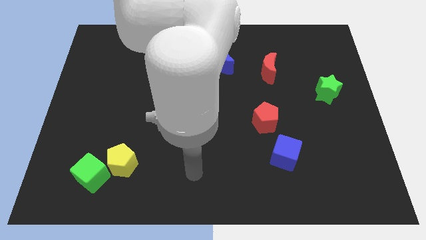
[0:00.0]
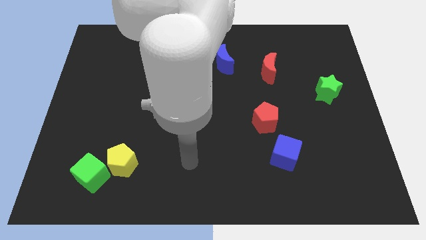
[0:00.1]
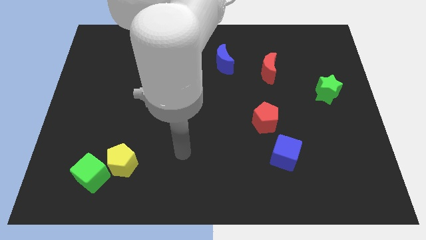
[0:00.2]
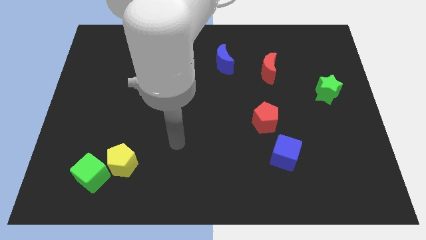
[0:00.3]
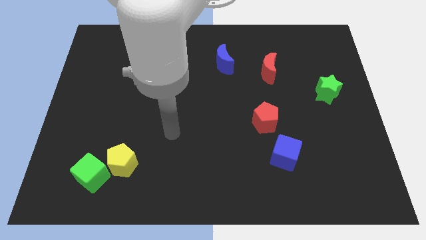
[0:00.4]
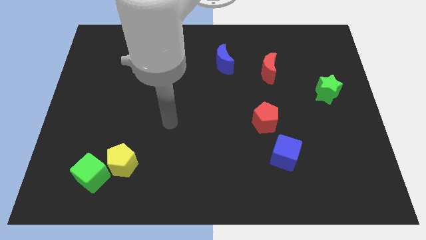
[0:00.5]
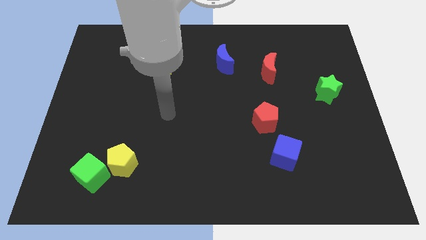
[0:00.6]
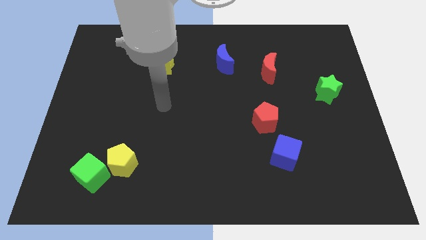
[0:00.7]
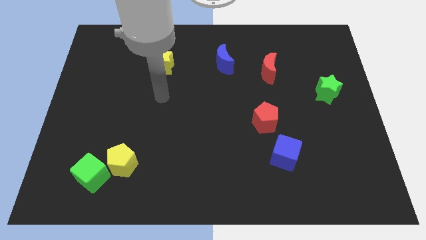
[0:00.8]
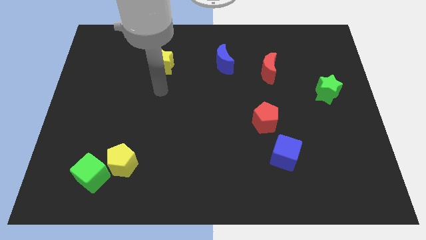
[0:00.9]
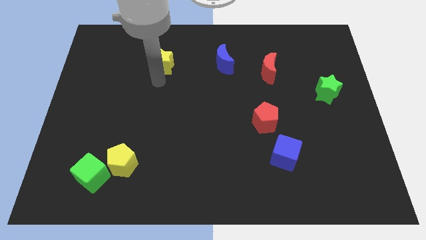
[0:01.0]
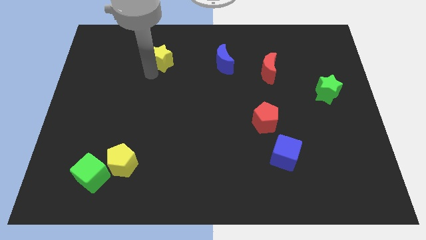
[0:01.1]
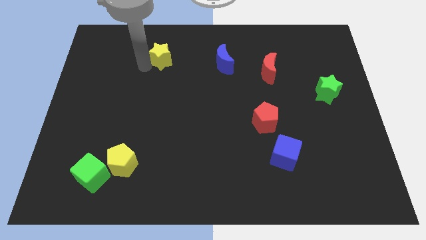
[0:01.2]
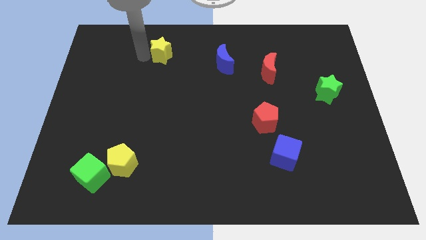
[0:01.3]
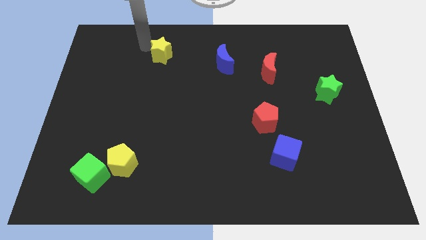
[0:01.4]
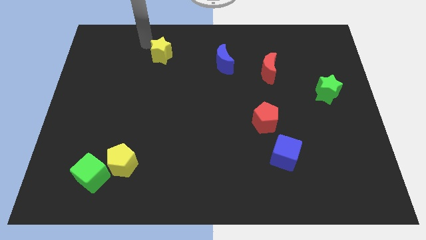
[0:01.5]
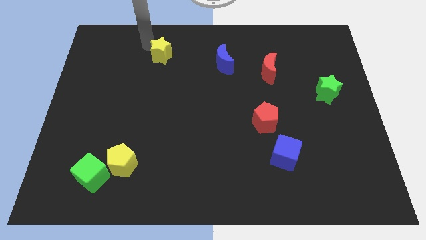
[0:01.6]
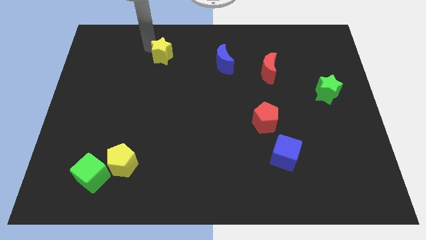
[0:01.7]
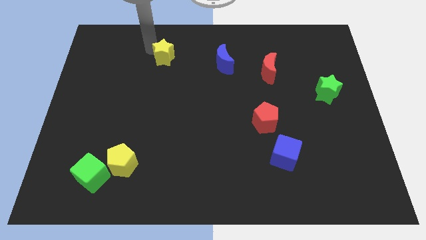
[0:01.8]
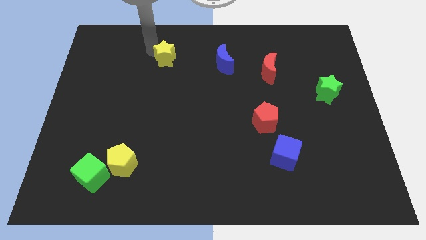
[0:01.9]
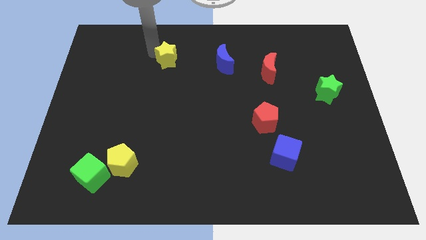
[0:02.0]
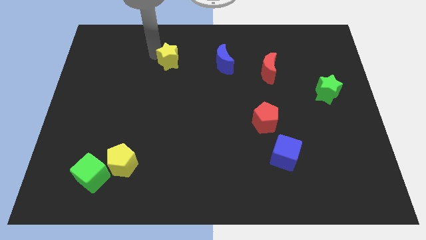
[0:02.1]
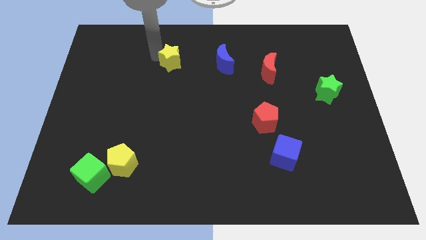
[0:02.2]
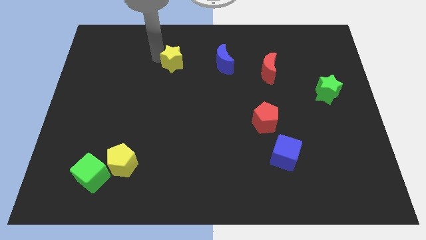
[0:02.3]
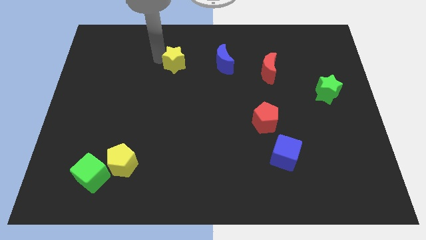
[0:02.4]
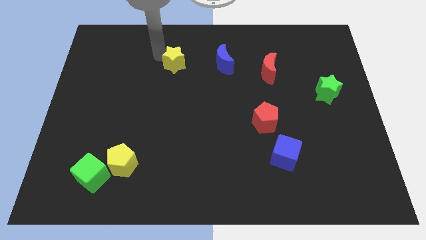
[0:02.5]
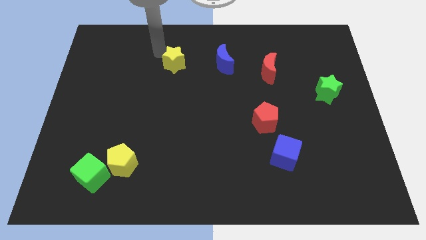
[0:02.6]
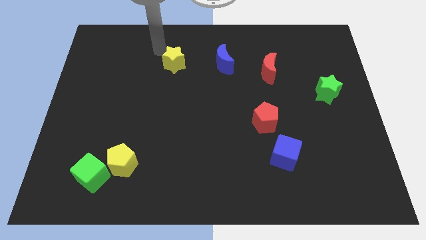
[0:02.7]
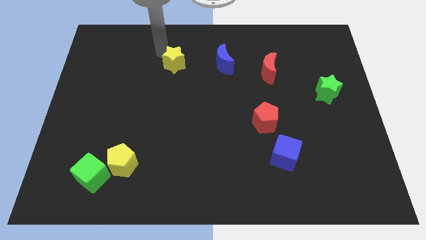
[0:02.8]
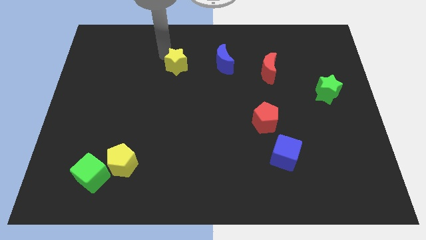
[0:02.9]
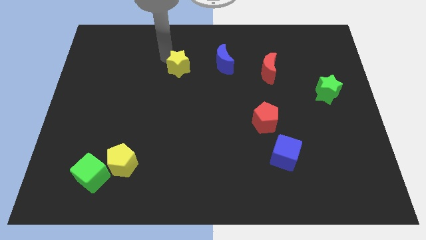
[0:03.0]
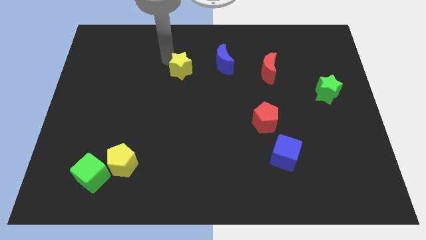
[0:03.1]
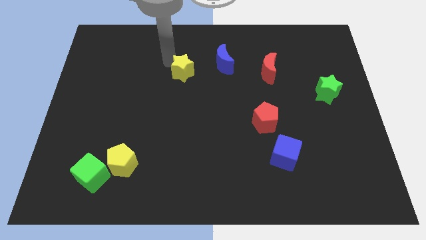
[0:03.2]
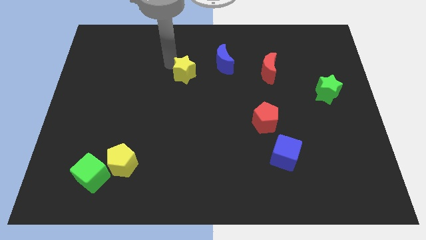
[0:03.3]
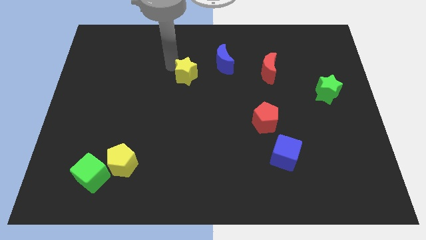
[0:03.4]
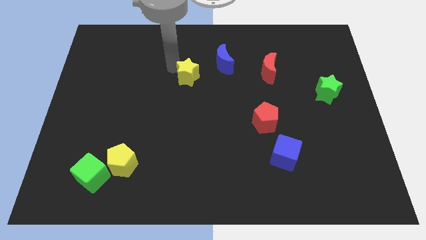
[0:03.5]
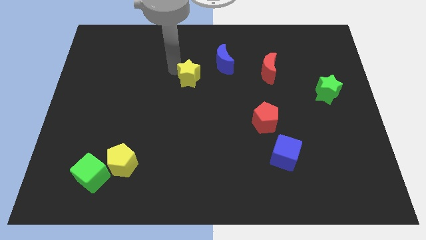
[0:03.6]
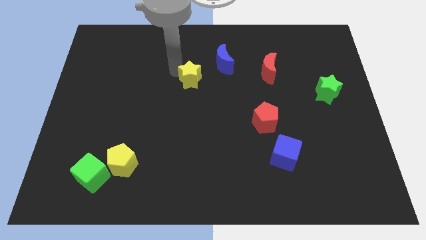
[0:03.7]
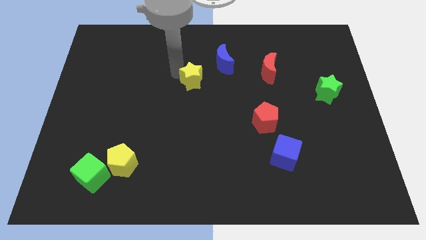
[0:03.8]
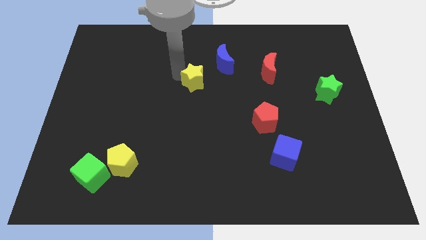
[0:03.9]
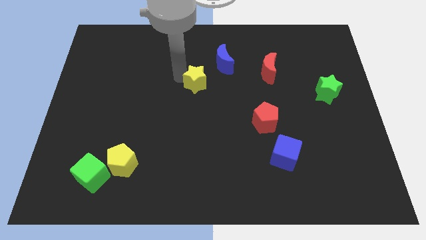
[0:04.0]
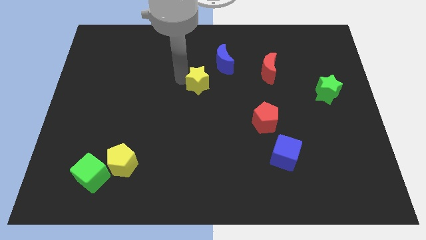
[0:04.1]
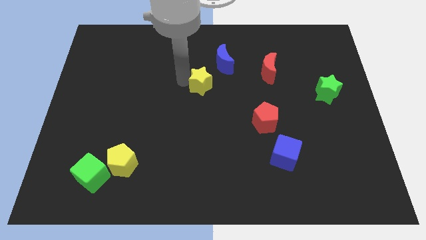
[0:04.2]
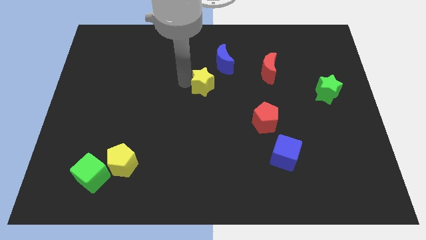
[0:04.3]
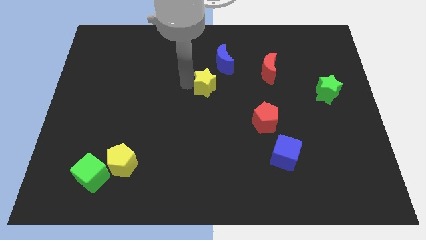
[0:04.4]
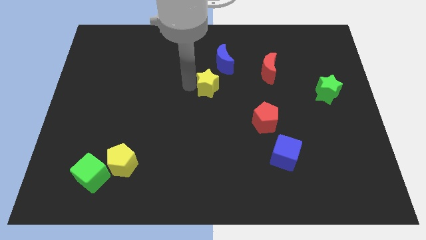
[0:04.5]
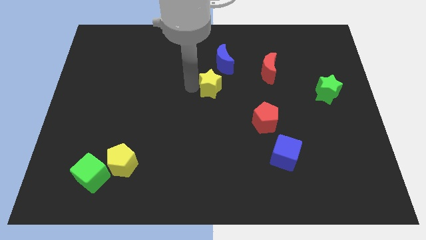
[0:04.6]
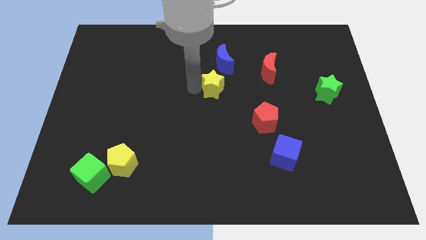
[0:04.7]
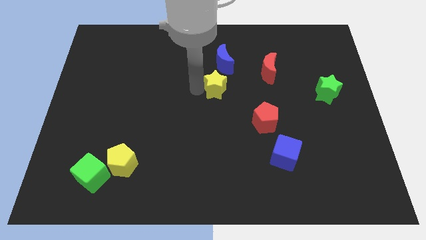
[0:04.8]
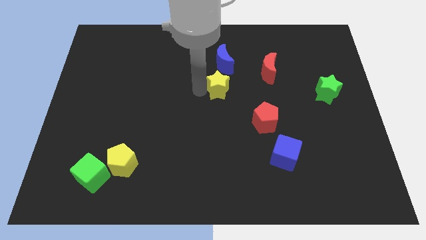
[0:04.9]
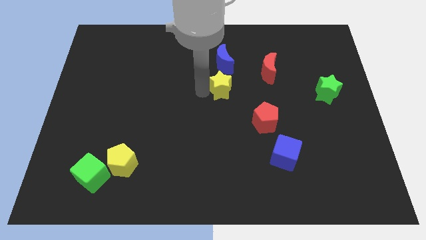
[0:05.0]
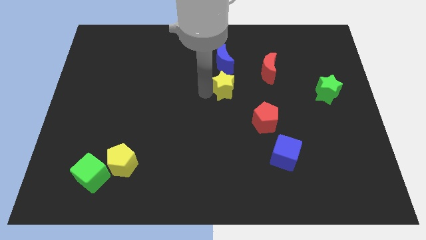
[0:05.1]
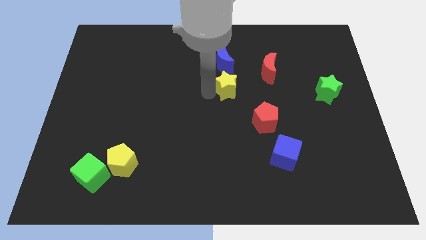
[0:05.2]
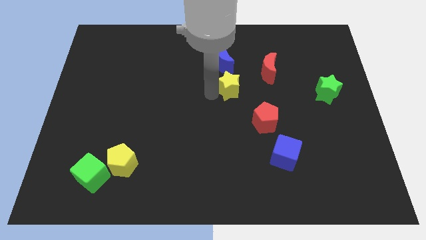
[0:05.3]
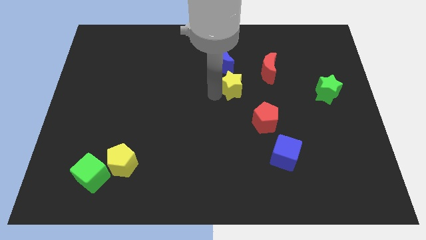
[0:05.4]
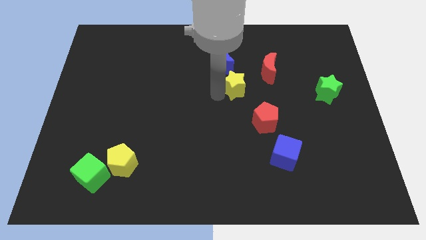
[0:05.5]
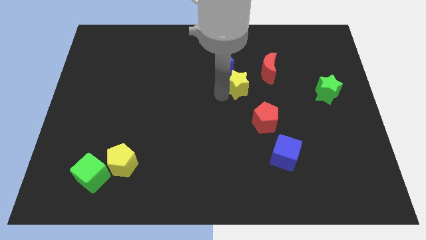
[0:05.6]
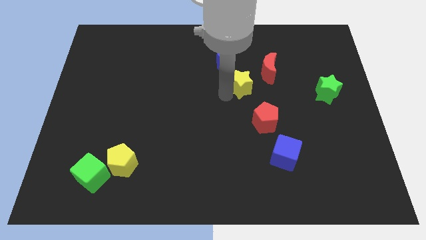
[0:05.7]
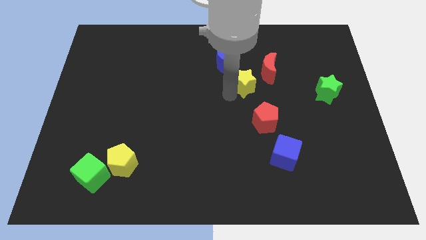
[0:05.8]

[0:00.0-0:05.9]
put the yellow star left of the red moon

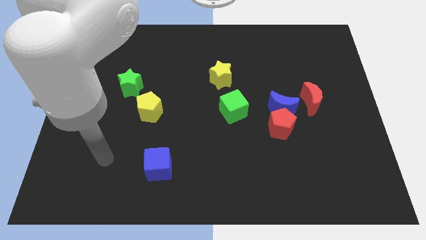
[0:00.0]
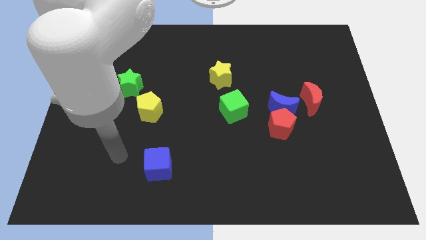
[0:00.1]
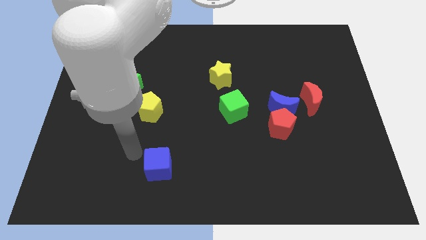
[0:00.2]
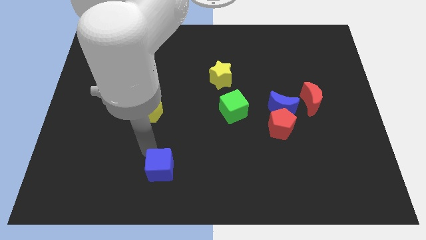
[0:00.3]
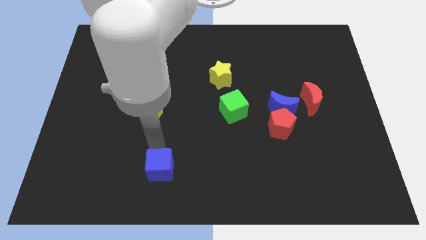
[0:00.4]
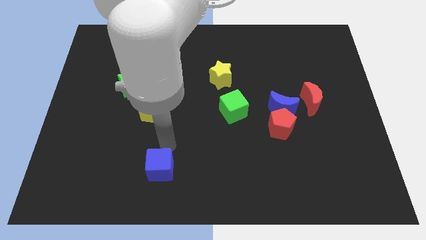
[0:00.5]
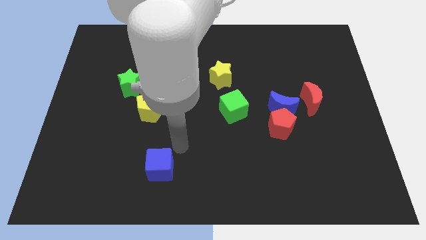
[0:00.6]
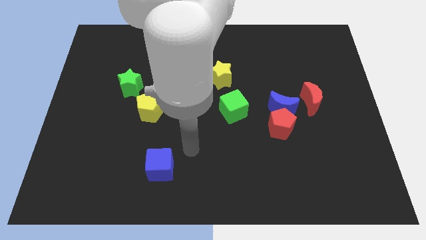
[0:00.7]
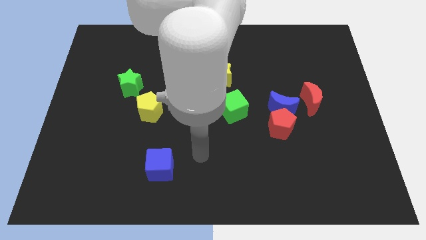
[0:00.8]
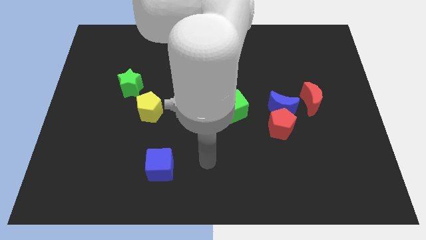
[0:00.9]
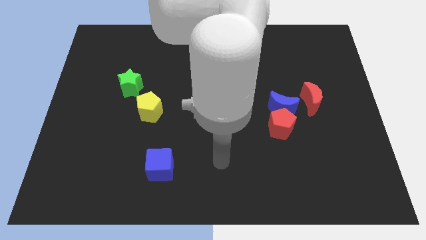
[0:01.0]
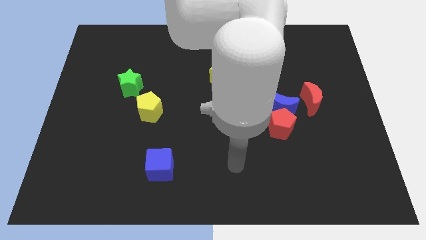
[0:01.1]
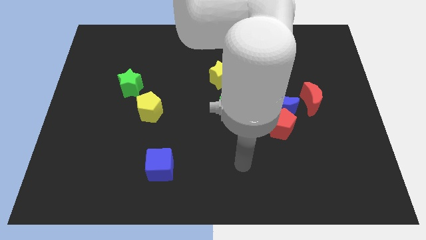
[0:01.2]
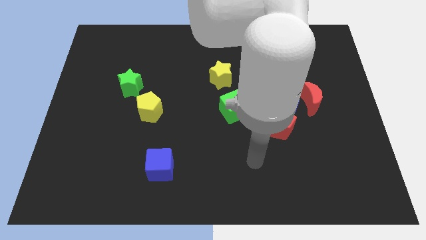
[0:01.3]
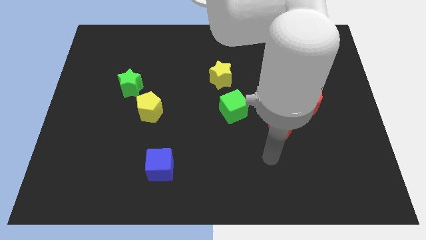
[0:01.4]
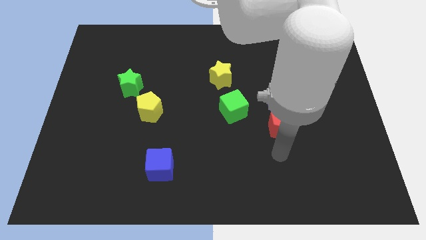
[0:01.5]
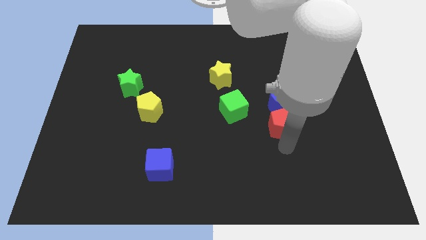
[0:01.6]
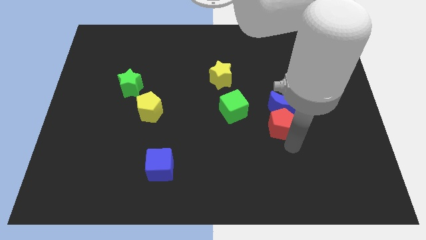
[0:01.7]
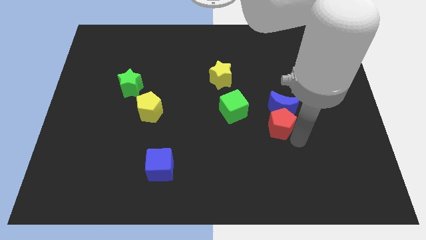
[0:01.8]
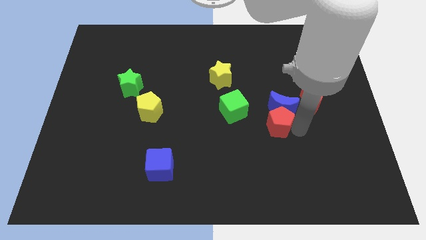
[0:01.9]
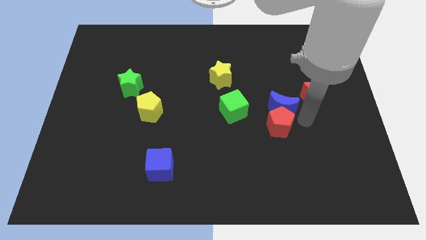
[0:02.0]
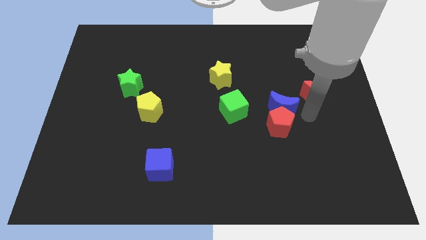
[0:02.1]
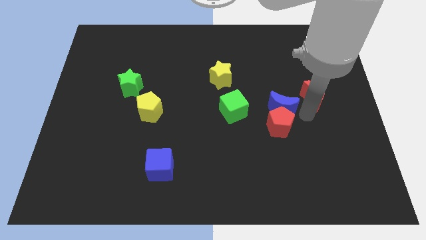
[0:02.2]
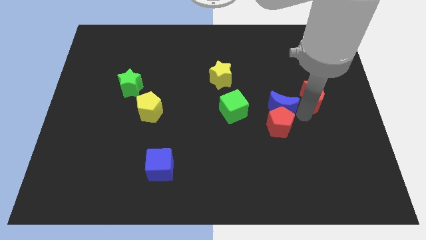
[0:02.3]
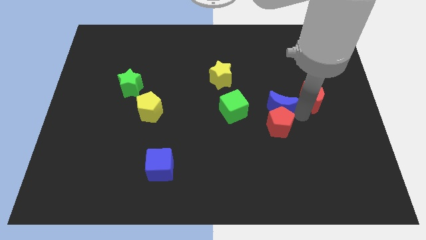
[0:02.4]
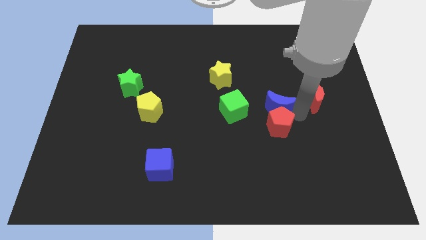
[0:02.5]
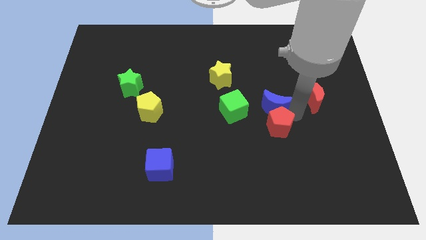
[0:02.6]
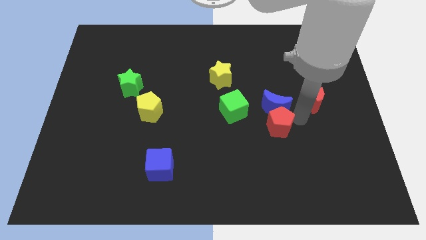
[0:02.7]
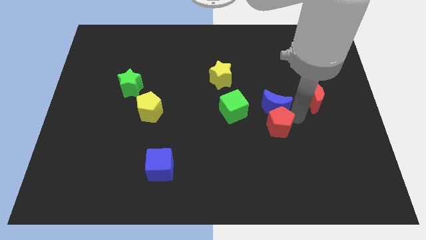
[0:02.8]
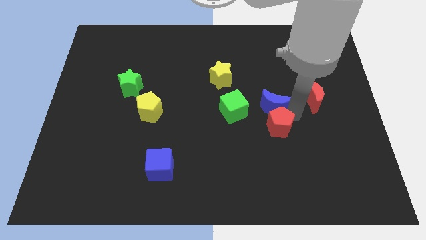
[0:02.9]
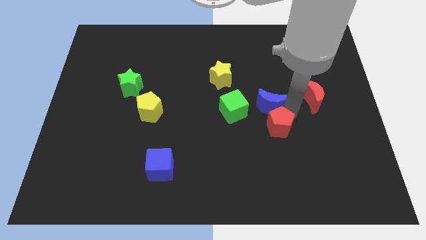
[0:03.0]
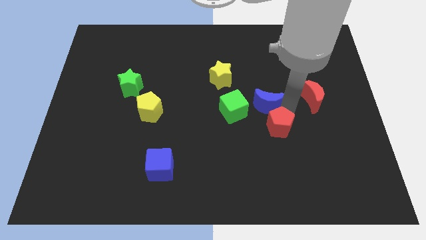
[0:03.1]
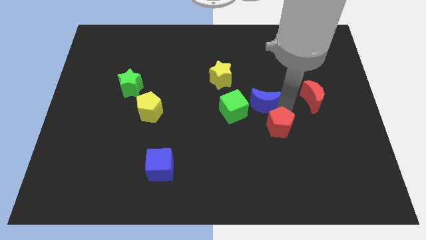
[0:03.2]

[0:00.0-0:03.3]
slide the blue moon to the bottom right of the yellow star
